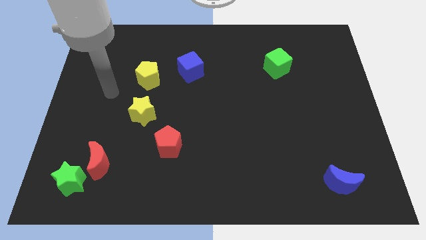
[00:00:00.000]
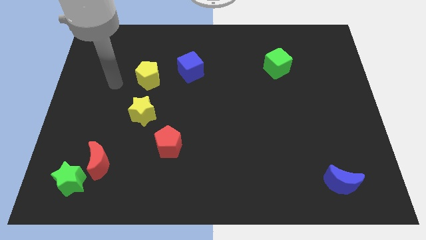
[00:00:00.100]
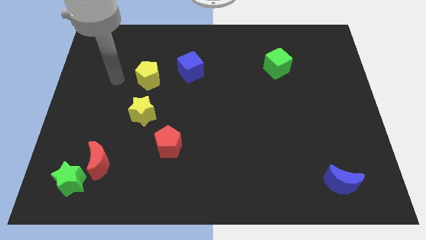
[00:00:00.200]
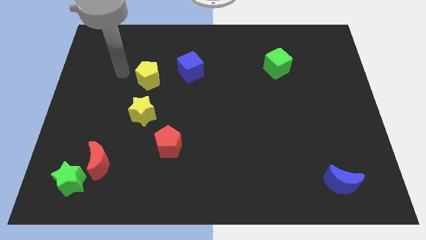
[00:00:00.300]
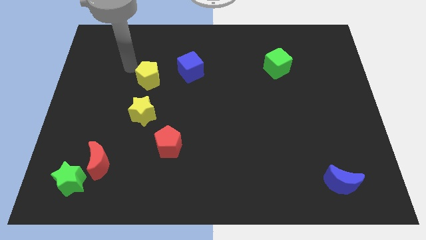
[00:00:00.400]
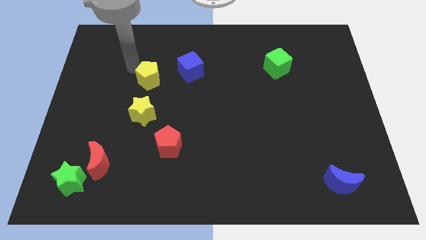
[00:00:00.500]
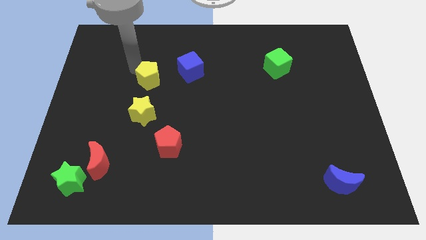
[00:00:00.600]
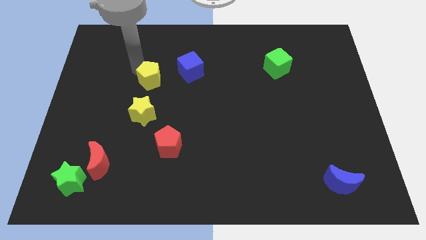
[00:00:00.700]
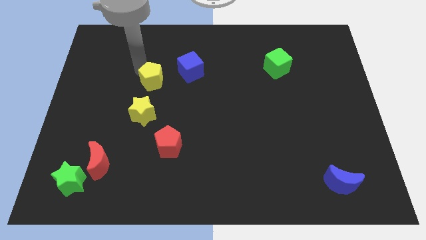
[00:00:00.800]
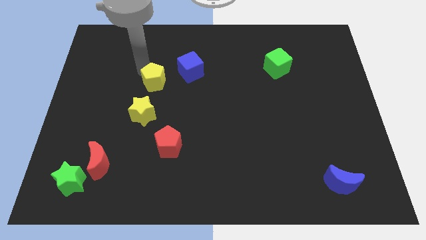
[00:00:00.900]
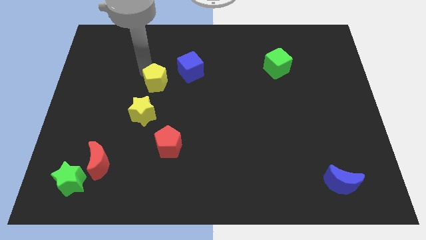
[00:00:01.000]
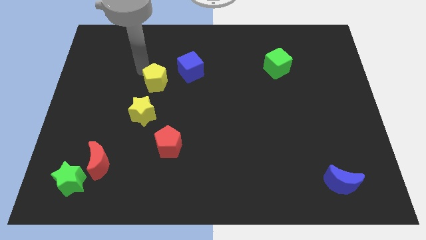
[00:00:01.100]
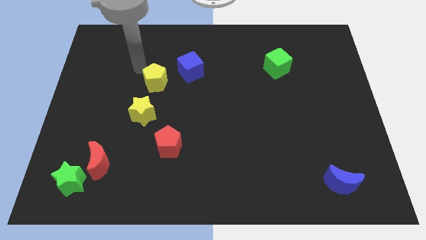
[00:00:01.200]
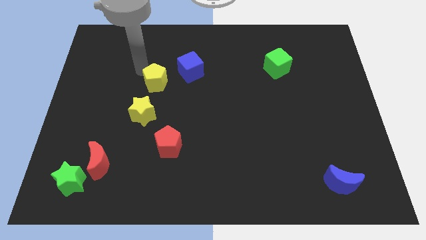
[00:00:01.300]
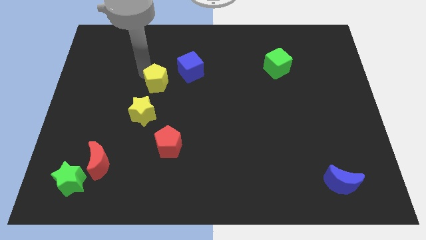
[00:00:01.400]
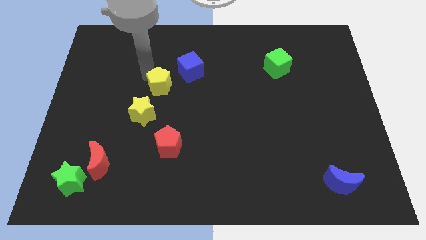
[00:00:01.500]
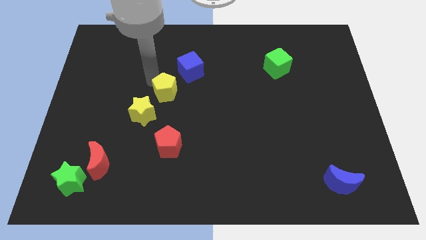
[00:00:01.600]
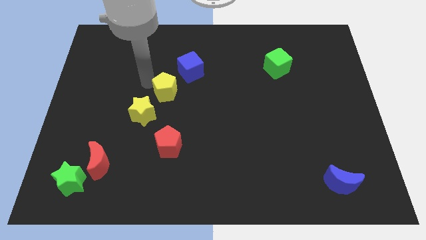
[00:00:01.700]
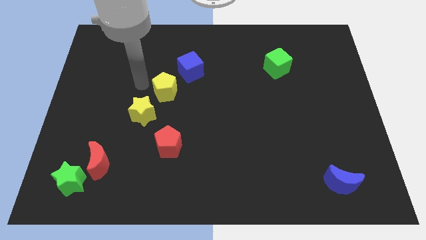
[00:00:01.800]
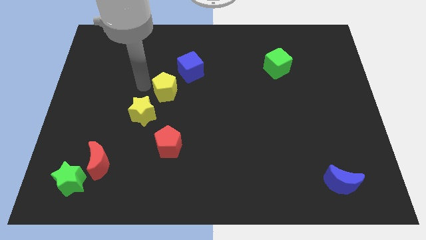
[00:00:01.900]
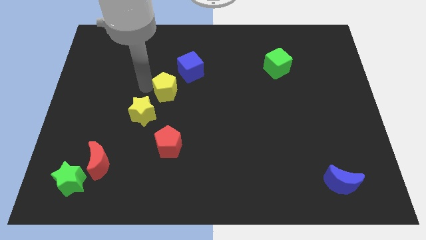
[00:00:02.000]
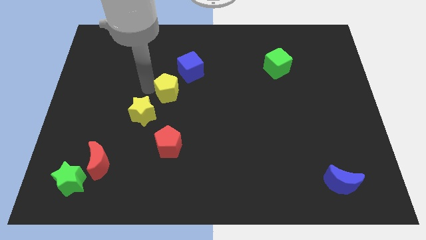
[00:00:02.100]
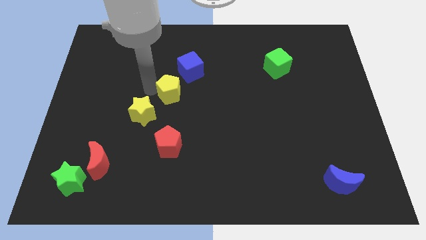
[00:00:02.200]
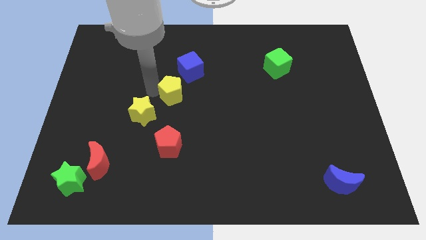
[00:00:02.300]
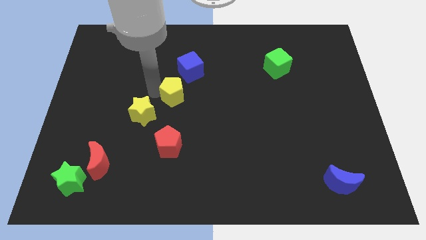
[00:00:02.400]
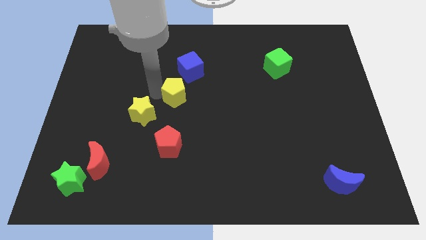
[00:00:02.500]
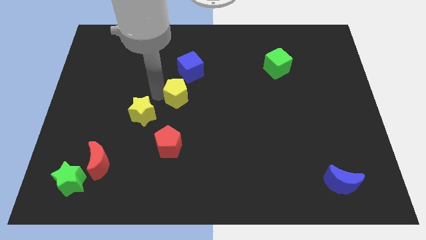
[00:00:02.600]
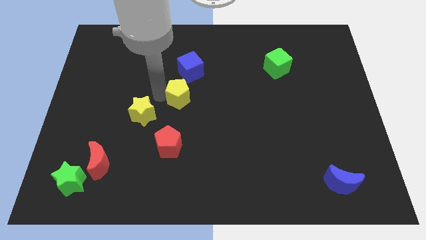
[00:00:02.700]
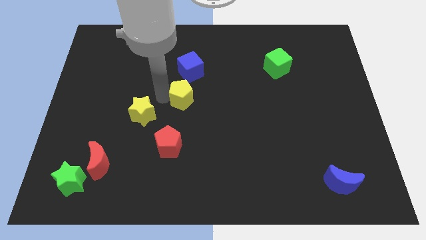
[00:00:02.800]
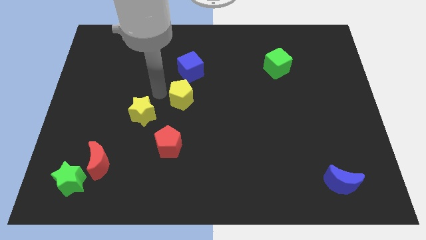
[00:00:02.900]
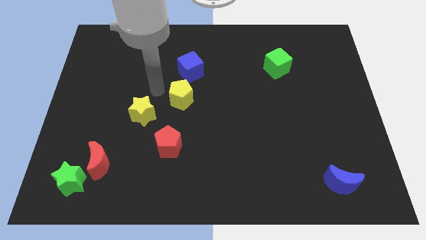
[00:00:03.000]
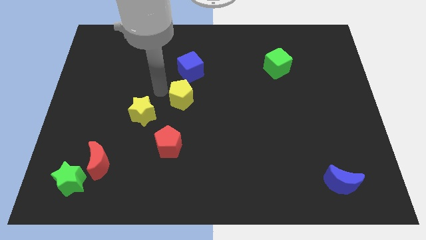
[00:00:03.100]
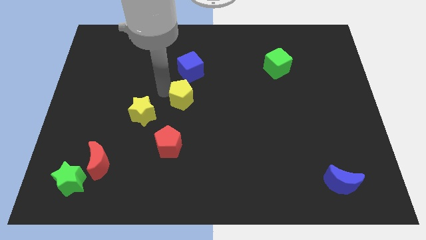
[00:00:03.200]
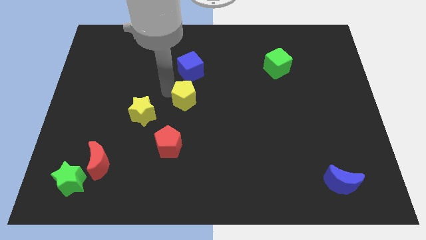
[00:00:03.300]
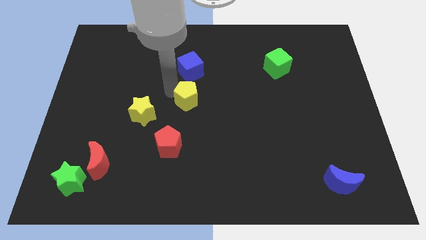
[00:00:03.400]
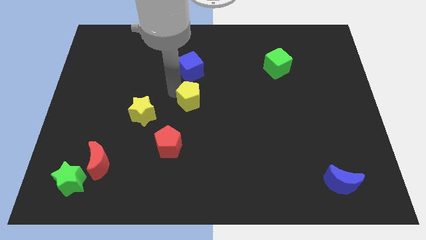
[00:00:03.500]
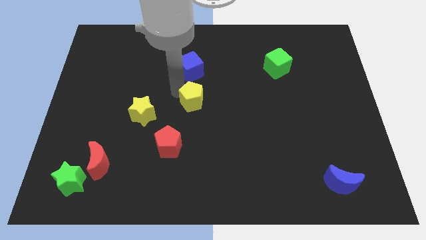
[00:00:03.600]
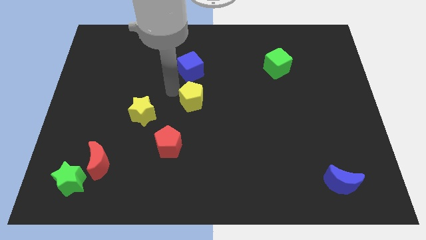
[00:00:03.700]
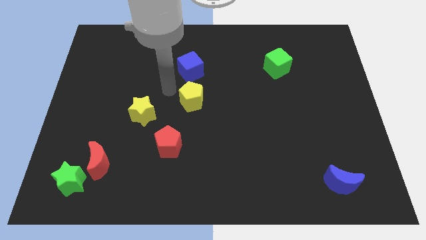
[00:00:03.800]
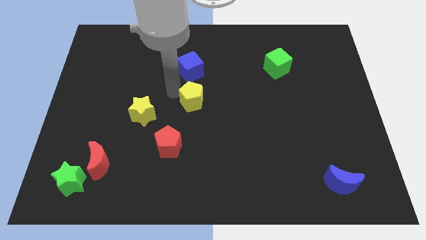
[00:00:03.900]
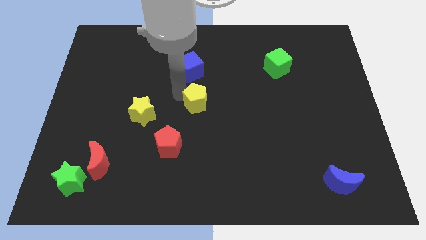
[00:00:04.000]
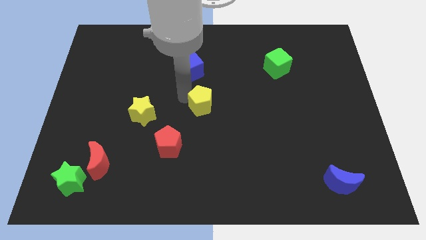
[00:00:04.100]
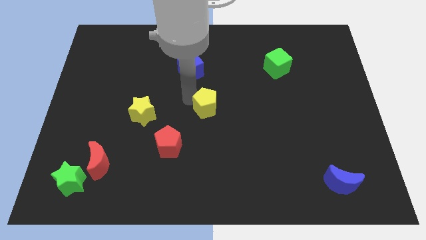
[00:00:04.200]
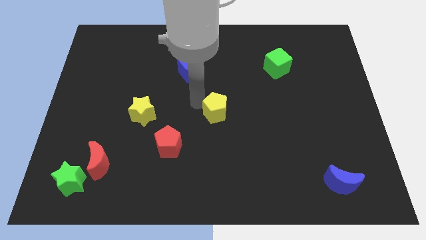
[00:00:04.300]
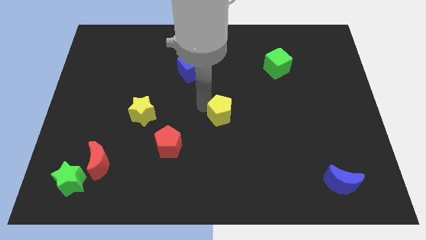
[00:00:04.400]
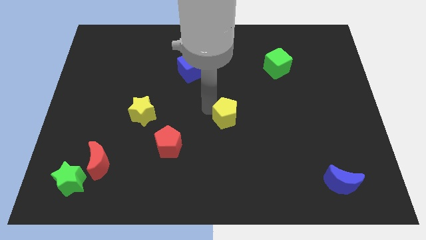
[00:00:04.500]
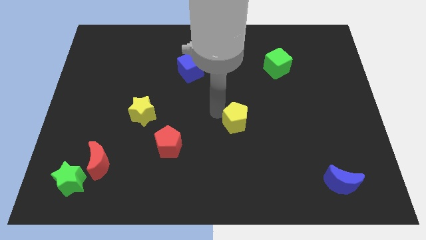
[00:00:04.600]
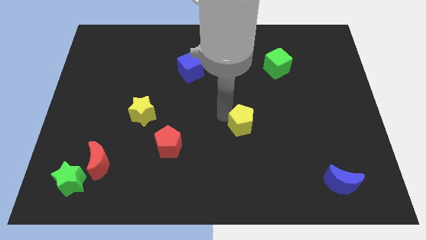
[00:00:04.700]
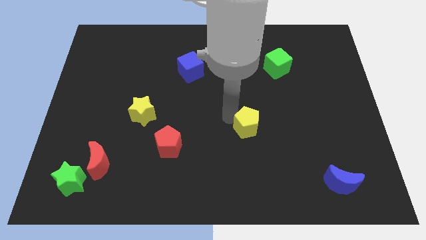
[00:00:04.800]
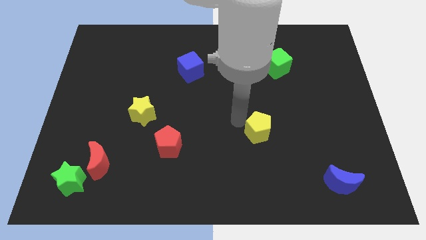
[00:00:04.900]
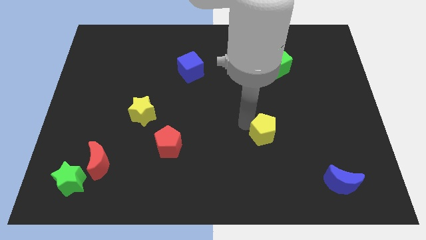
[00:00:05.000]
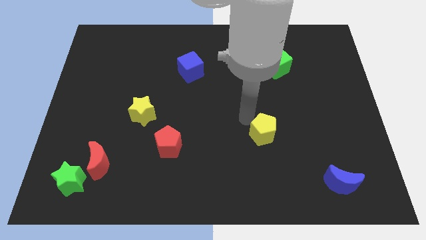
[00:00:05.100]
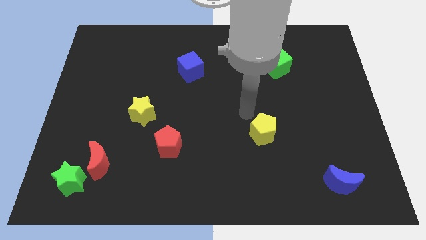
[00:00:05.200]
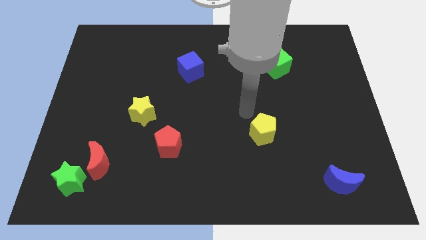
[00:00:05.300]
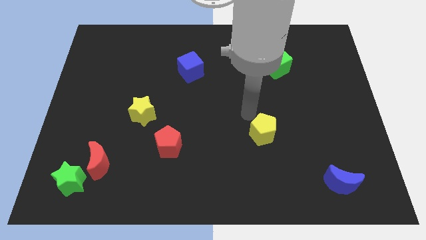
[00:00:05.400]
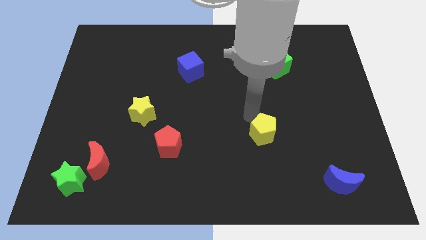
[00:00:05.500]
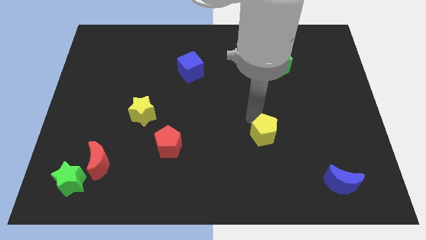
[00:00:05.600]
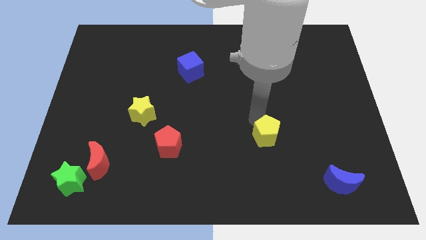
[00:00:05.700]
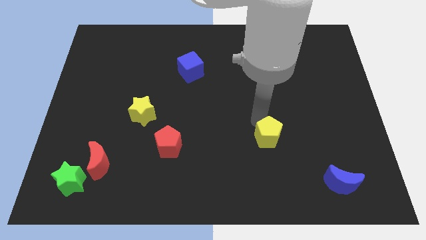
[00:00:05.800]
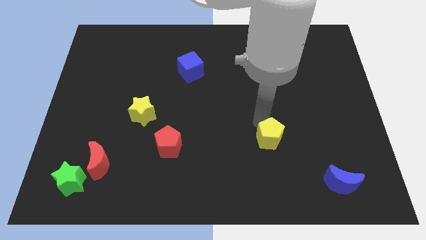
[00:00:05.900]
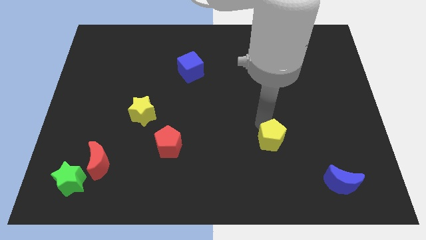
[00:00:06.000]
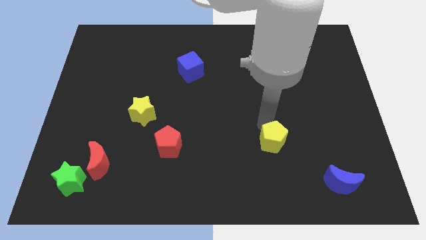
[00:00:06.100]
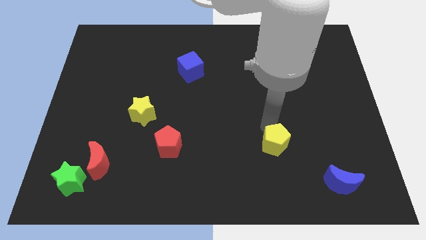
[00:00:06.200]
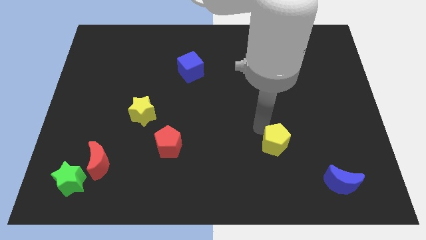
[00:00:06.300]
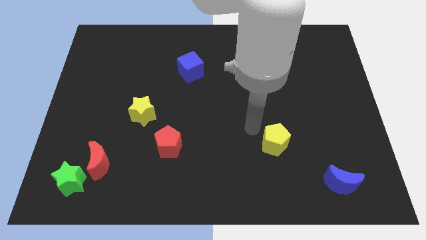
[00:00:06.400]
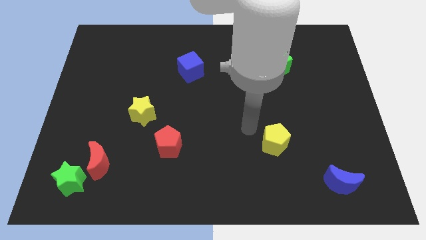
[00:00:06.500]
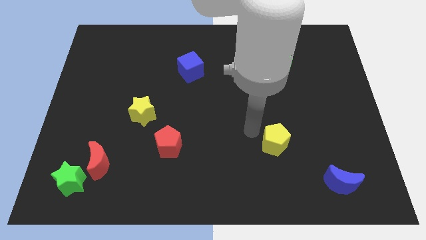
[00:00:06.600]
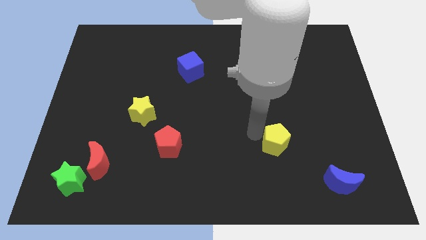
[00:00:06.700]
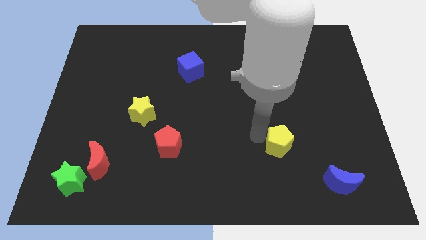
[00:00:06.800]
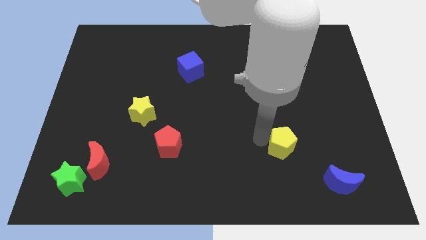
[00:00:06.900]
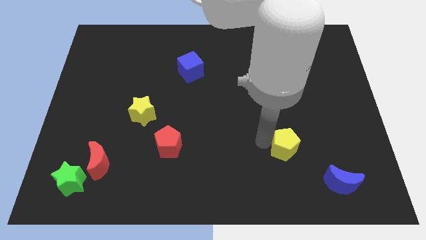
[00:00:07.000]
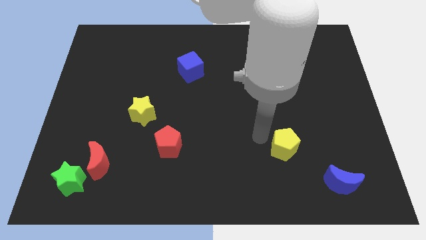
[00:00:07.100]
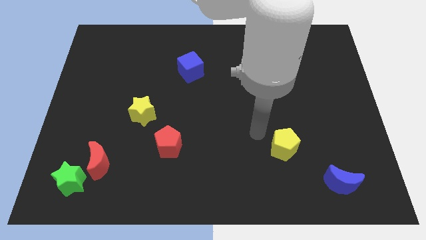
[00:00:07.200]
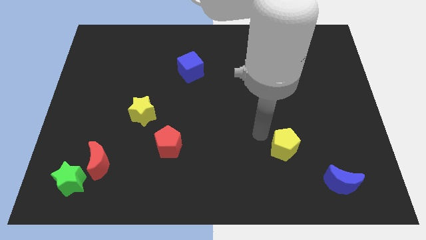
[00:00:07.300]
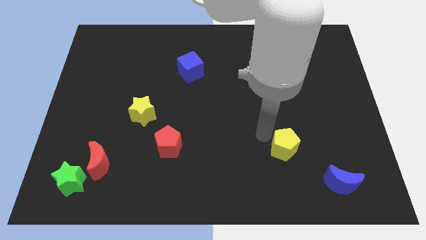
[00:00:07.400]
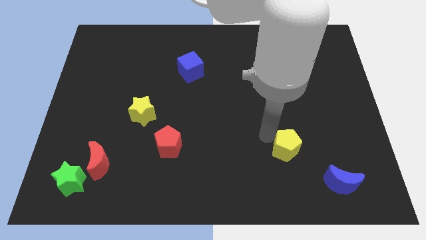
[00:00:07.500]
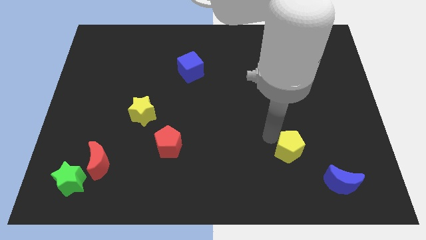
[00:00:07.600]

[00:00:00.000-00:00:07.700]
put the yellow pentagon to the top left side of the blue moon
